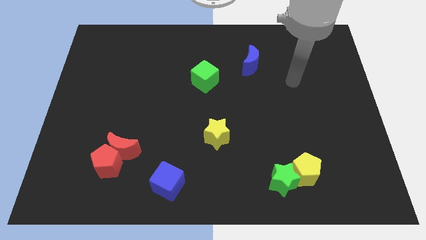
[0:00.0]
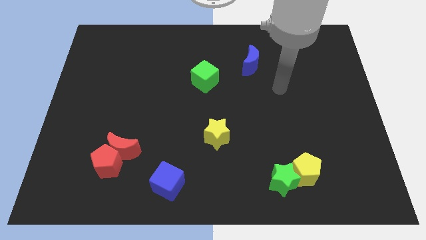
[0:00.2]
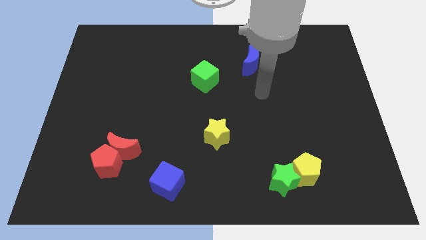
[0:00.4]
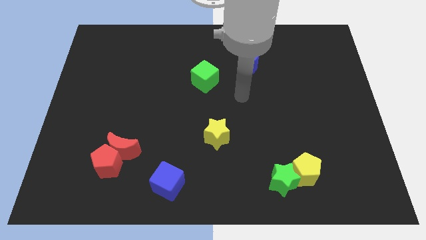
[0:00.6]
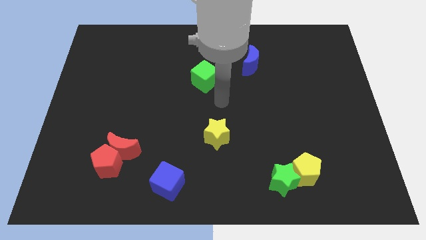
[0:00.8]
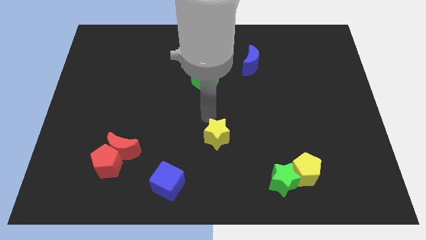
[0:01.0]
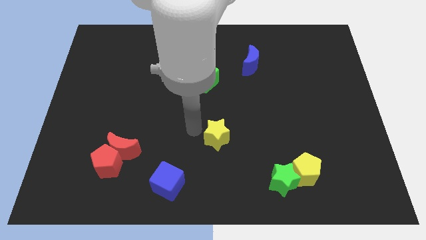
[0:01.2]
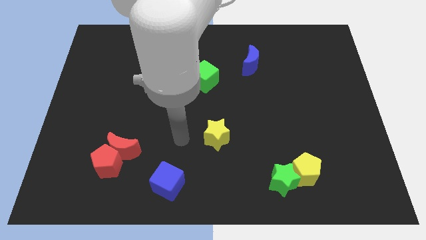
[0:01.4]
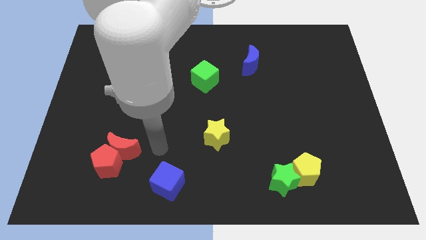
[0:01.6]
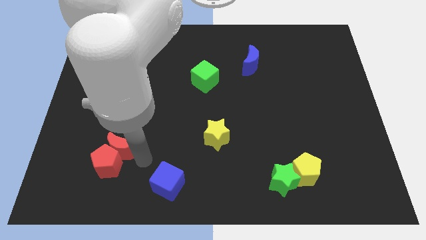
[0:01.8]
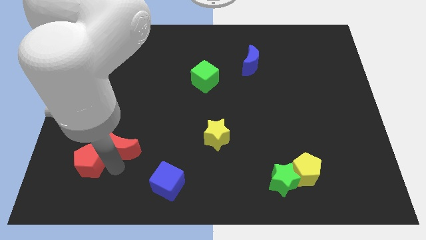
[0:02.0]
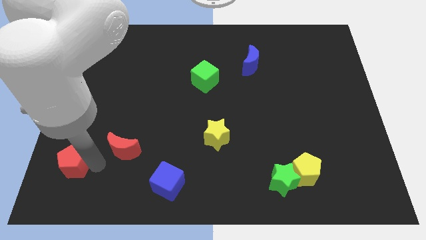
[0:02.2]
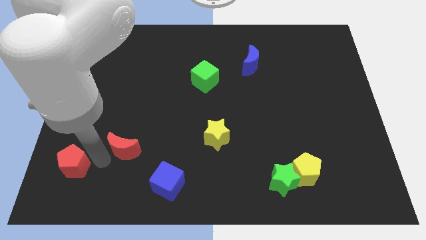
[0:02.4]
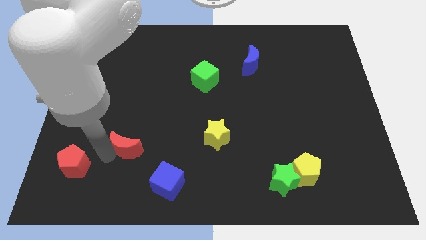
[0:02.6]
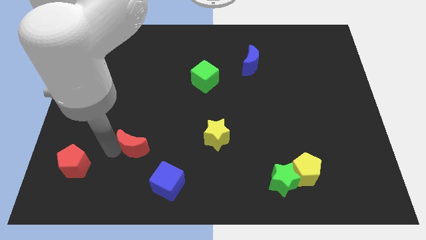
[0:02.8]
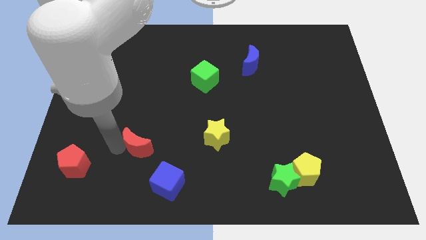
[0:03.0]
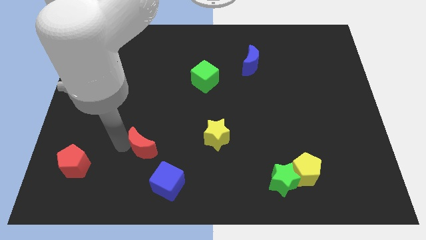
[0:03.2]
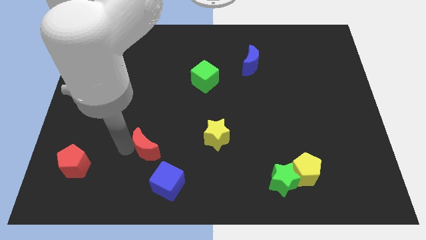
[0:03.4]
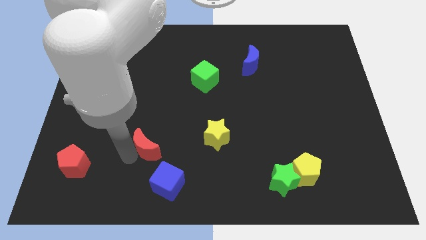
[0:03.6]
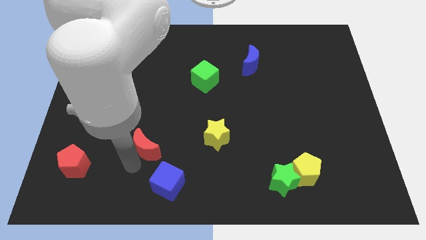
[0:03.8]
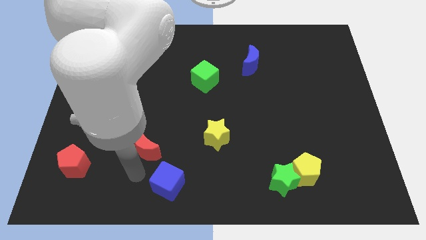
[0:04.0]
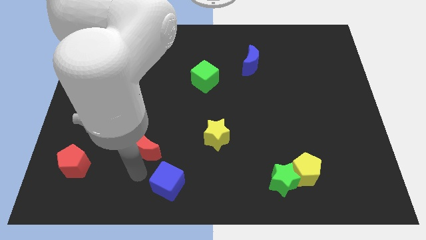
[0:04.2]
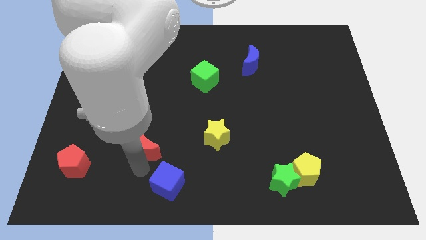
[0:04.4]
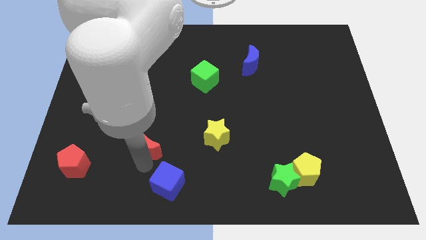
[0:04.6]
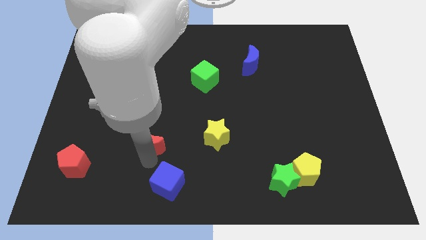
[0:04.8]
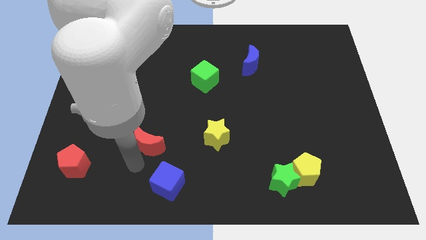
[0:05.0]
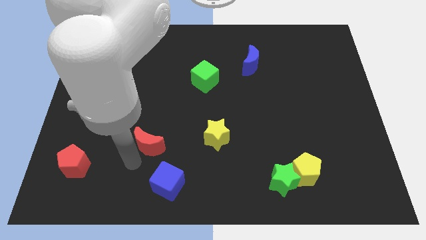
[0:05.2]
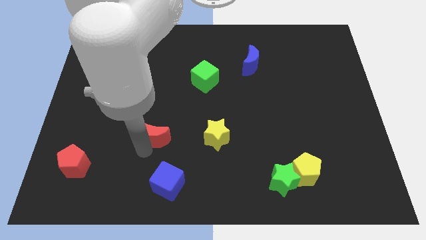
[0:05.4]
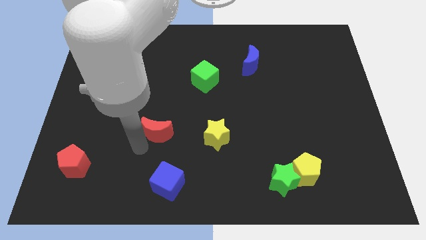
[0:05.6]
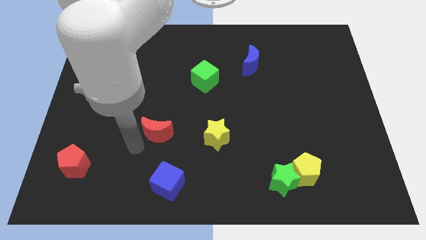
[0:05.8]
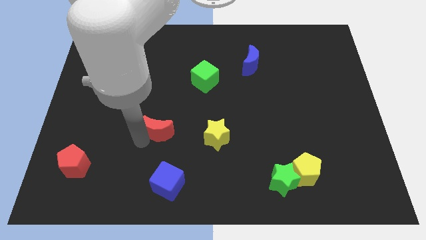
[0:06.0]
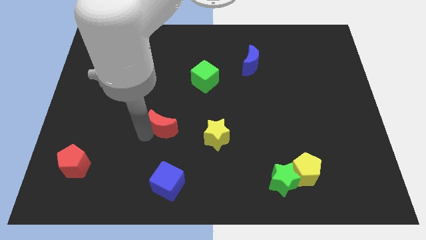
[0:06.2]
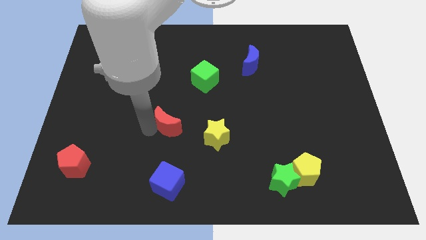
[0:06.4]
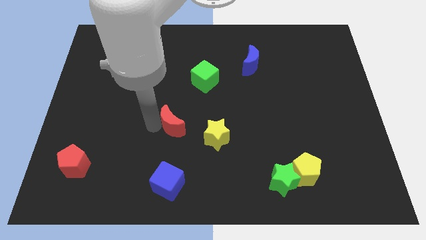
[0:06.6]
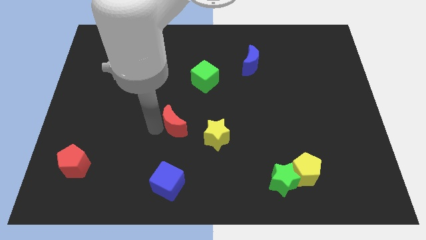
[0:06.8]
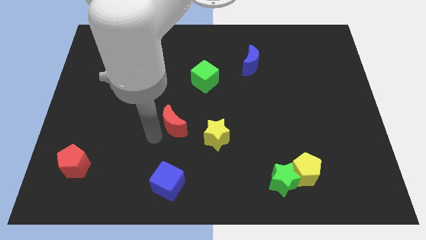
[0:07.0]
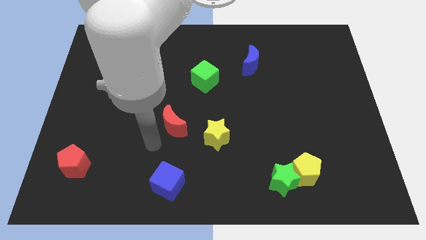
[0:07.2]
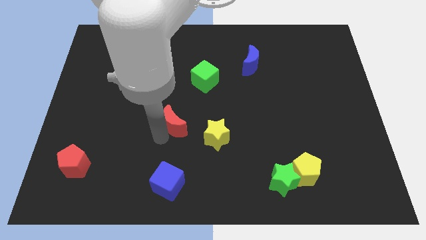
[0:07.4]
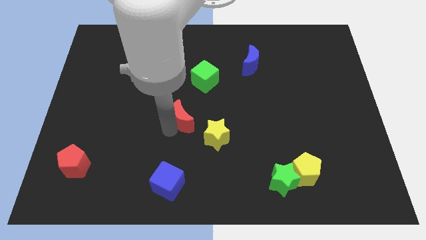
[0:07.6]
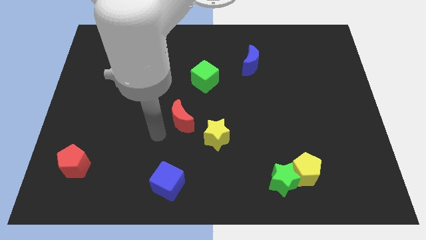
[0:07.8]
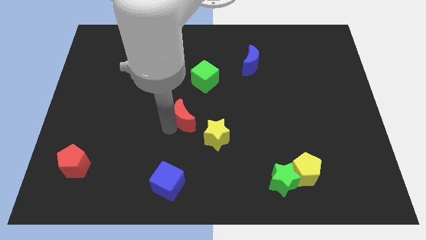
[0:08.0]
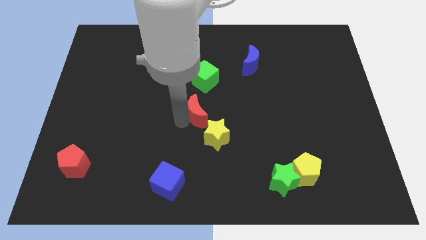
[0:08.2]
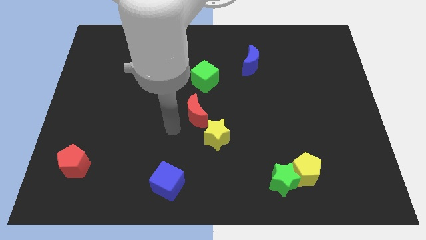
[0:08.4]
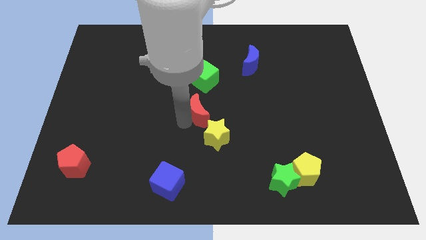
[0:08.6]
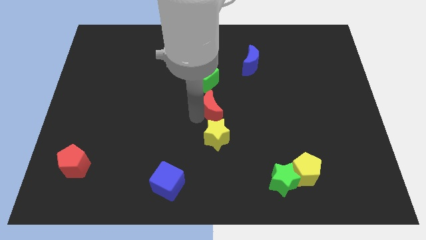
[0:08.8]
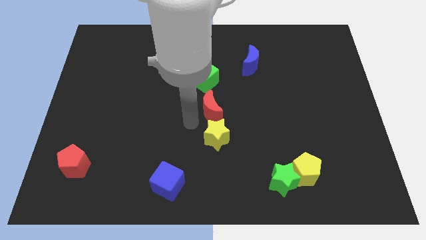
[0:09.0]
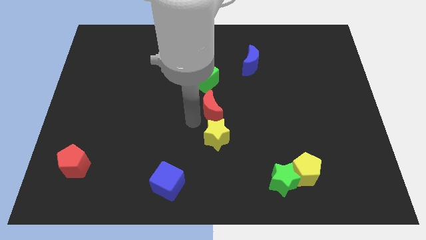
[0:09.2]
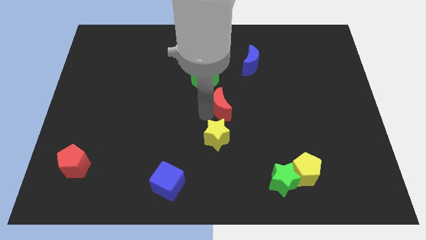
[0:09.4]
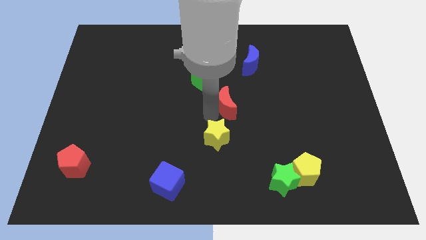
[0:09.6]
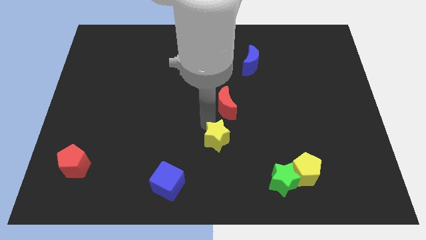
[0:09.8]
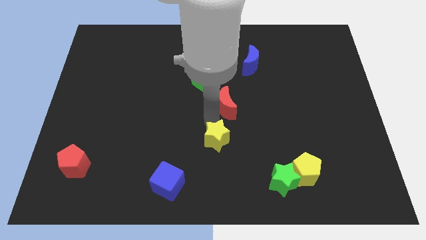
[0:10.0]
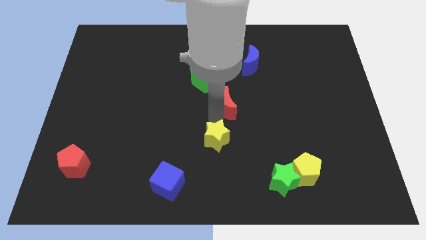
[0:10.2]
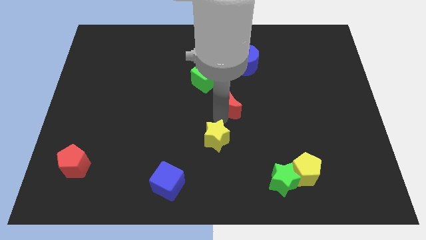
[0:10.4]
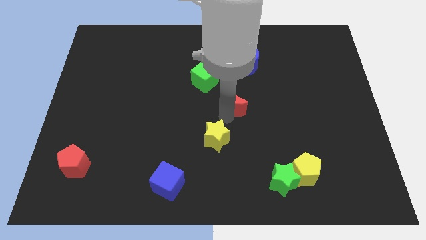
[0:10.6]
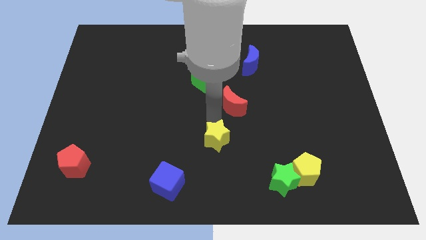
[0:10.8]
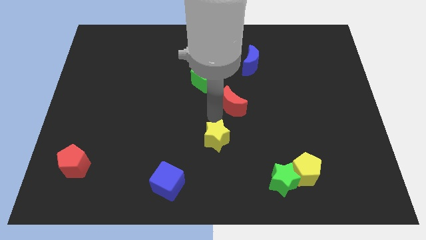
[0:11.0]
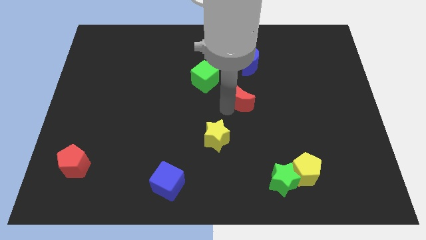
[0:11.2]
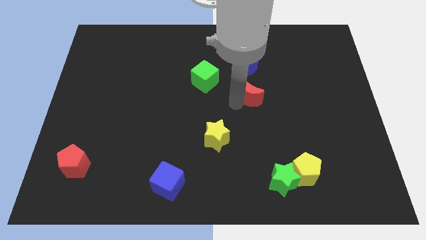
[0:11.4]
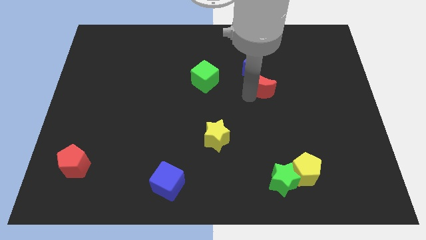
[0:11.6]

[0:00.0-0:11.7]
push the red moon diagonally down and to the right of the blue moon

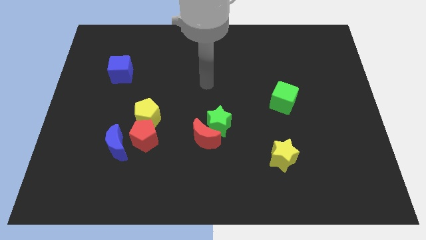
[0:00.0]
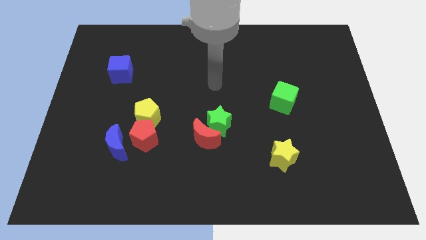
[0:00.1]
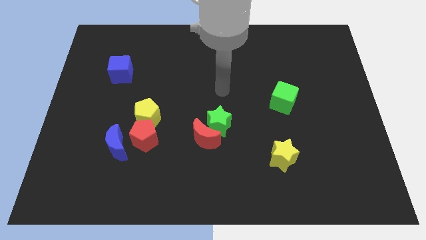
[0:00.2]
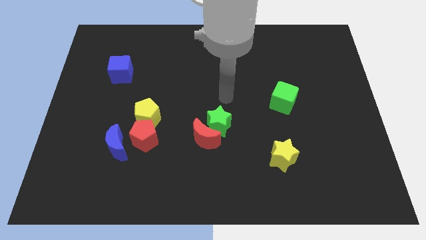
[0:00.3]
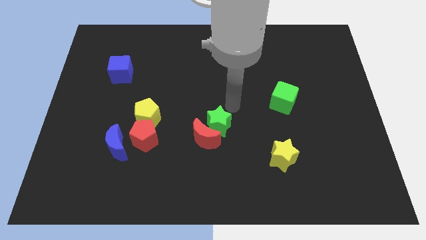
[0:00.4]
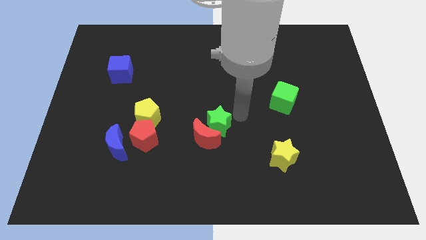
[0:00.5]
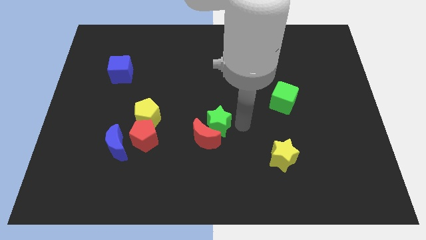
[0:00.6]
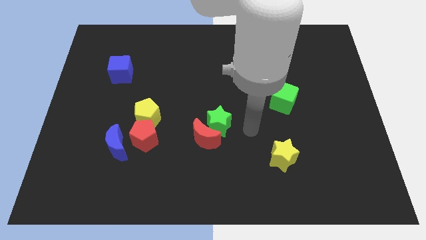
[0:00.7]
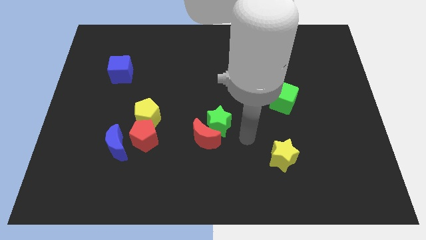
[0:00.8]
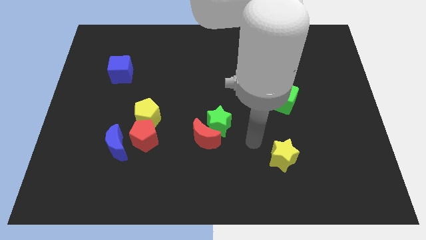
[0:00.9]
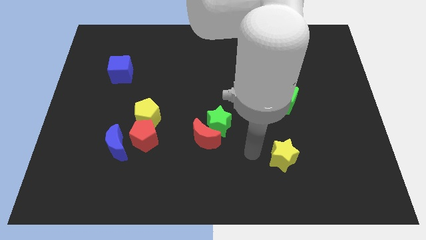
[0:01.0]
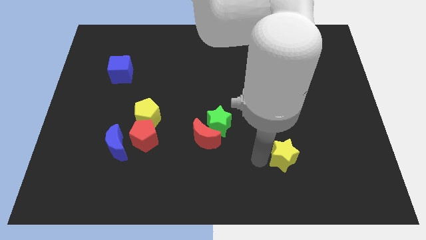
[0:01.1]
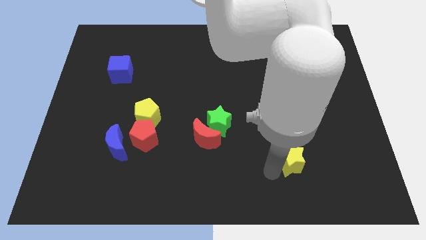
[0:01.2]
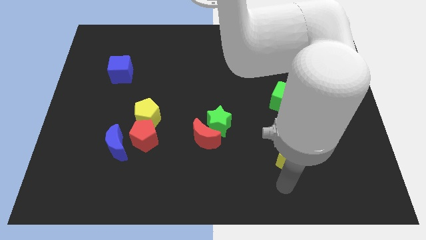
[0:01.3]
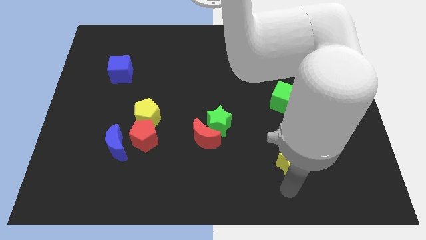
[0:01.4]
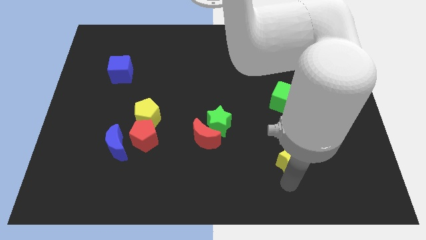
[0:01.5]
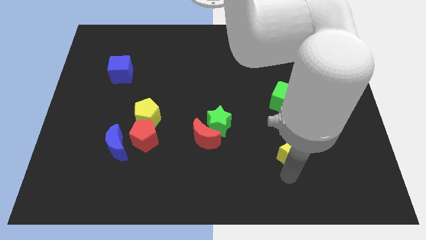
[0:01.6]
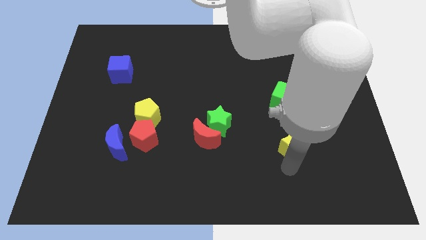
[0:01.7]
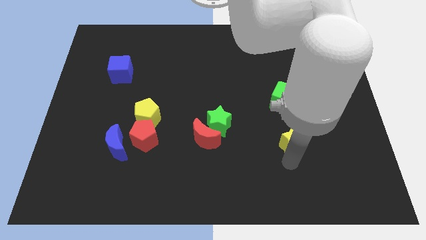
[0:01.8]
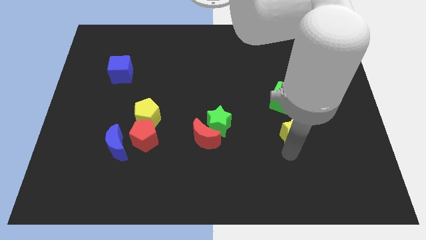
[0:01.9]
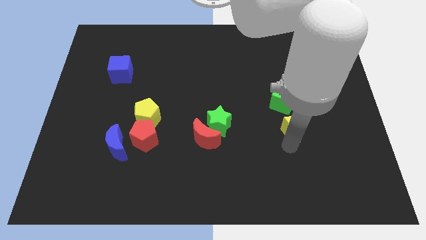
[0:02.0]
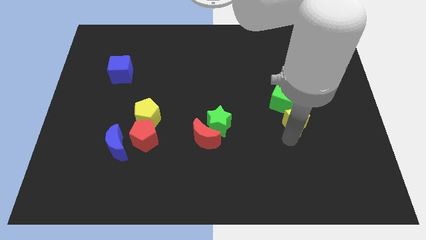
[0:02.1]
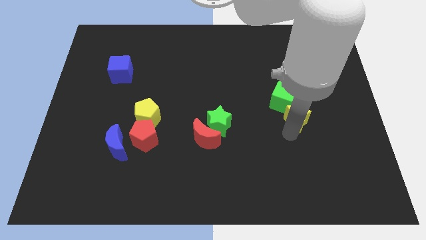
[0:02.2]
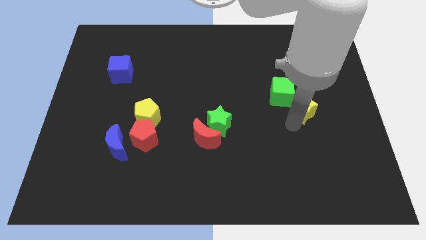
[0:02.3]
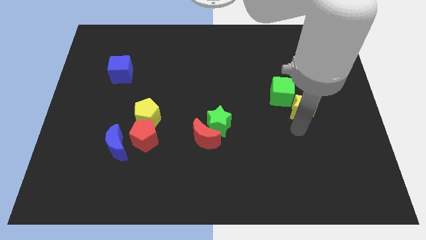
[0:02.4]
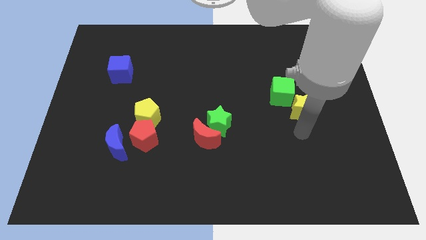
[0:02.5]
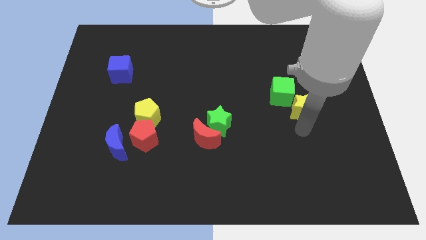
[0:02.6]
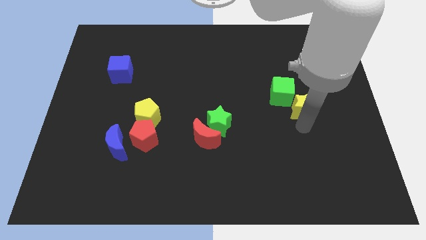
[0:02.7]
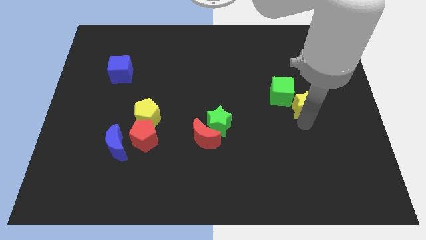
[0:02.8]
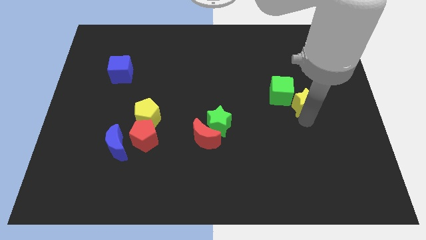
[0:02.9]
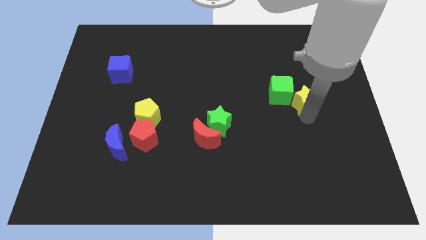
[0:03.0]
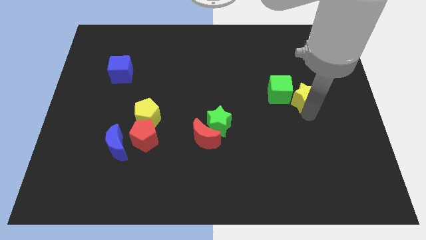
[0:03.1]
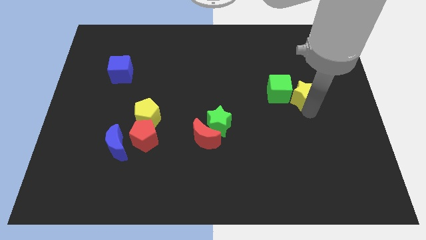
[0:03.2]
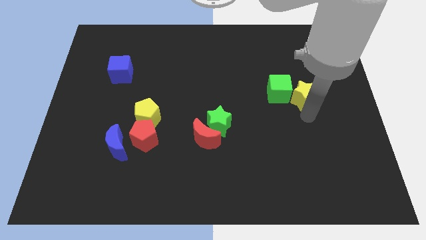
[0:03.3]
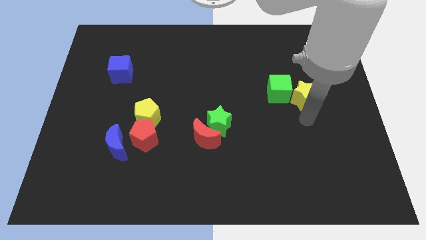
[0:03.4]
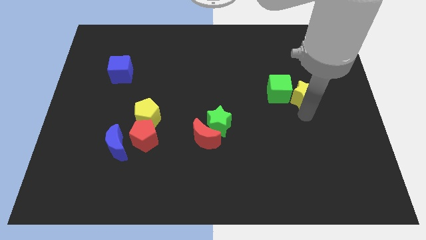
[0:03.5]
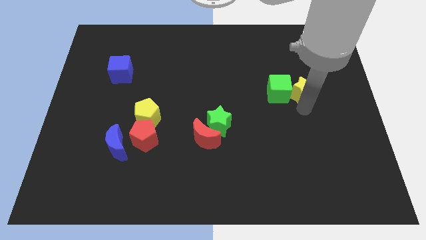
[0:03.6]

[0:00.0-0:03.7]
slide the yellow star to the top right side of the green cube
